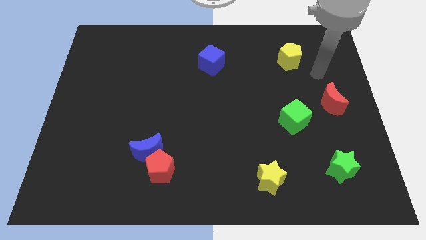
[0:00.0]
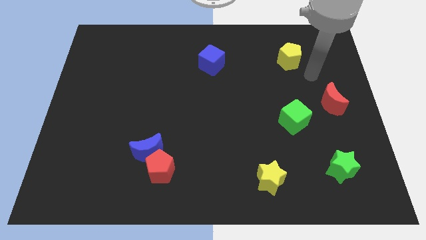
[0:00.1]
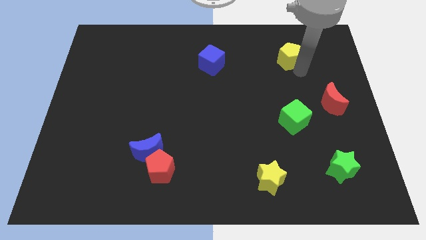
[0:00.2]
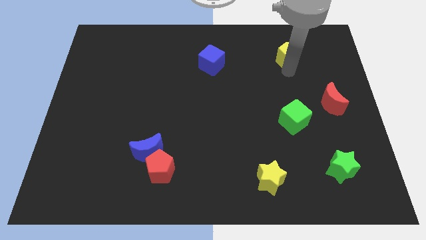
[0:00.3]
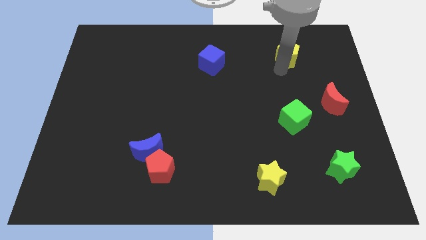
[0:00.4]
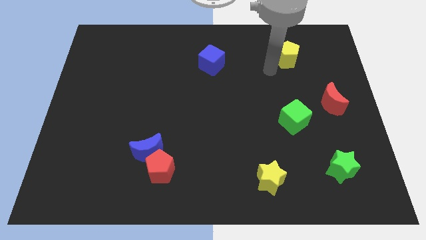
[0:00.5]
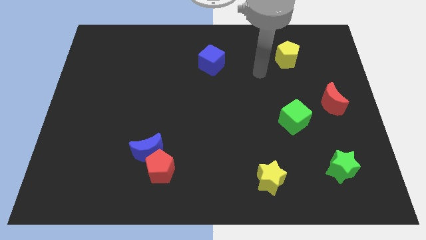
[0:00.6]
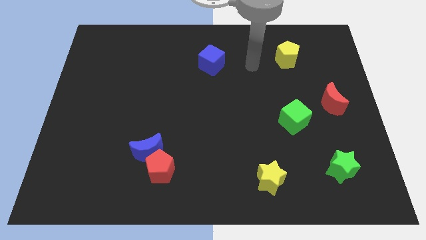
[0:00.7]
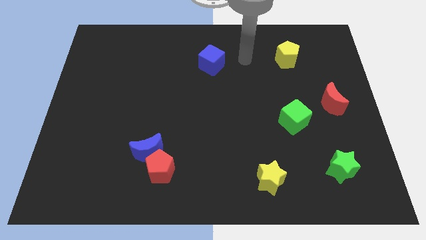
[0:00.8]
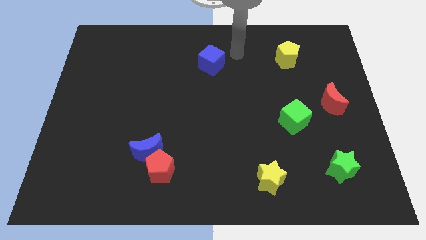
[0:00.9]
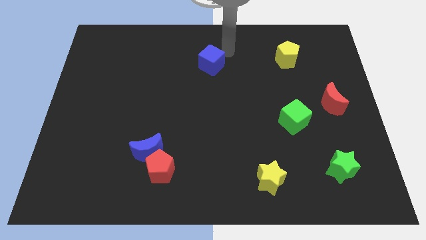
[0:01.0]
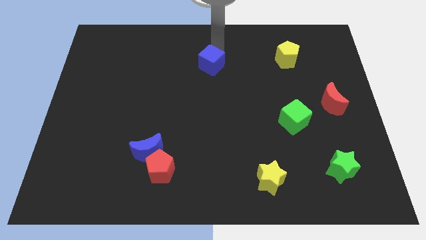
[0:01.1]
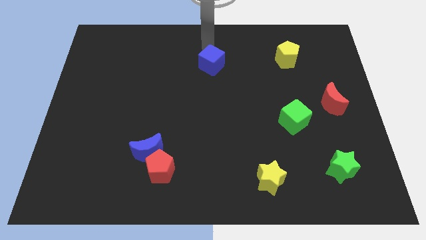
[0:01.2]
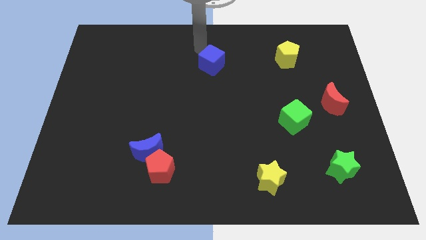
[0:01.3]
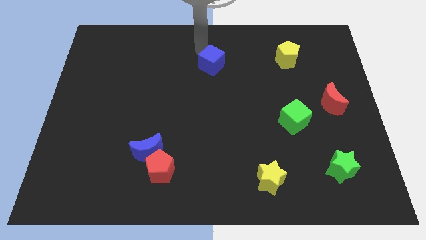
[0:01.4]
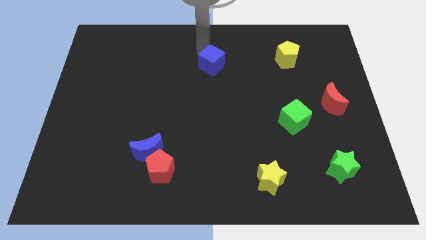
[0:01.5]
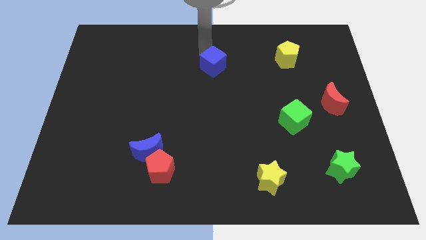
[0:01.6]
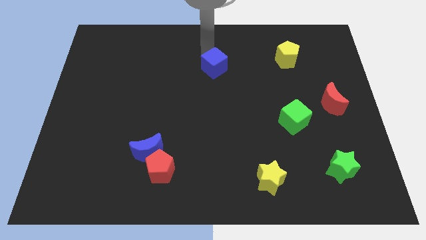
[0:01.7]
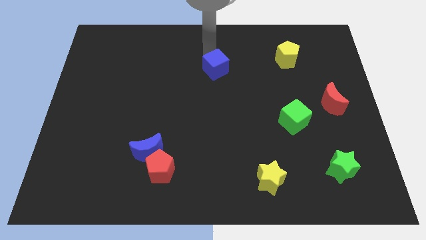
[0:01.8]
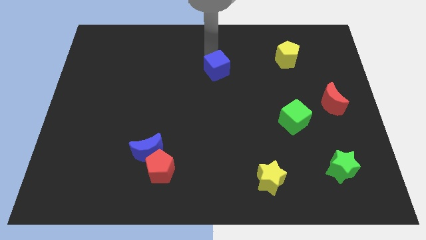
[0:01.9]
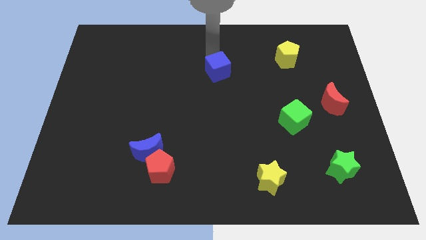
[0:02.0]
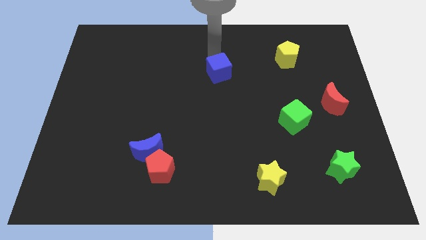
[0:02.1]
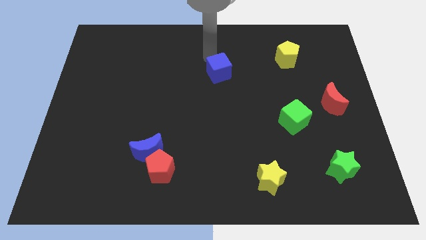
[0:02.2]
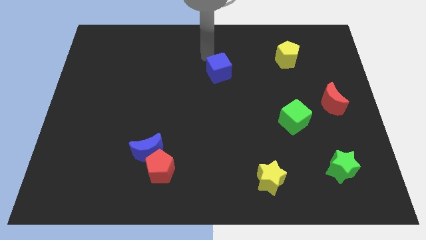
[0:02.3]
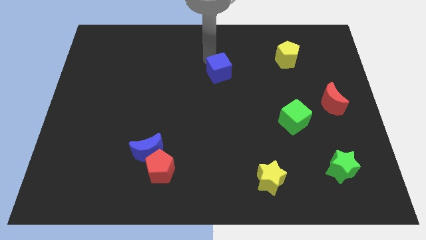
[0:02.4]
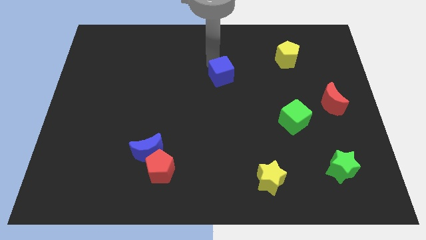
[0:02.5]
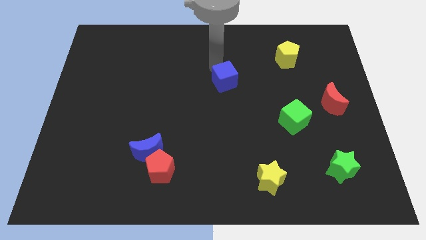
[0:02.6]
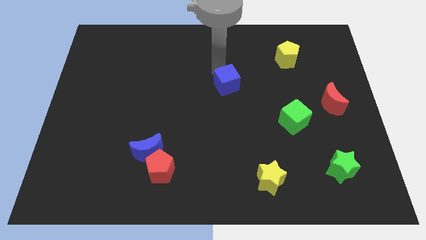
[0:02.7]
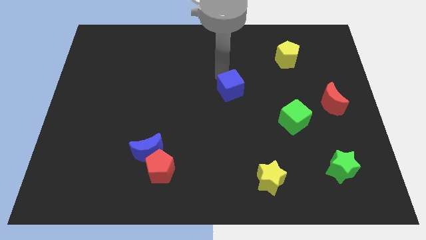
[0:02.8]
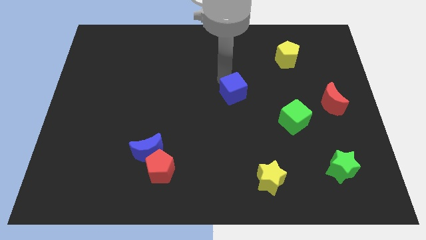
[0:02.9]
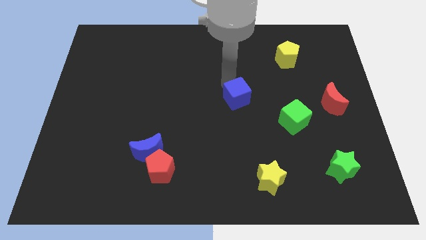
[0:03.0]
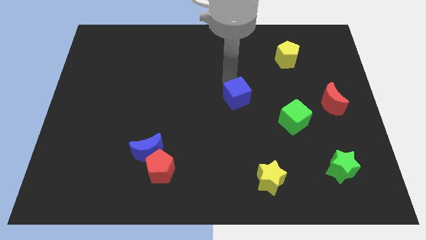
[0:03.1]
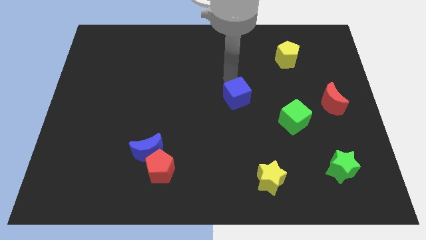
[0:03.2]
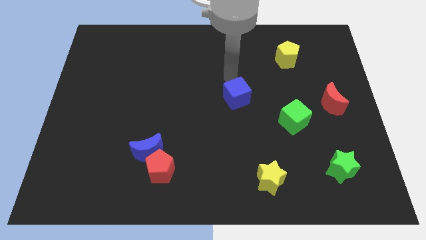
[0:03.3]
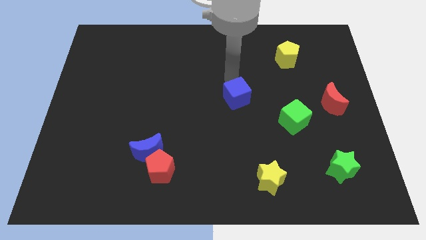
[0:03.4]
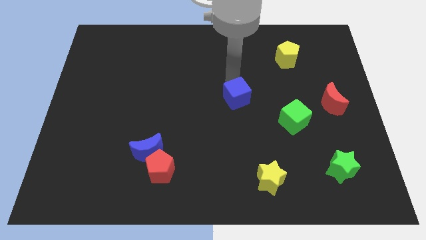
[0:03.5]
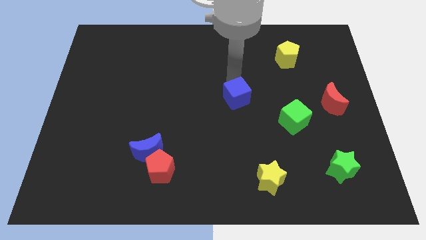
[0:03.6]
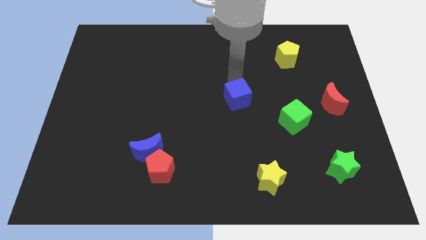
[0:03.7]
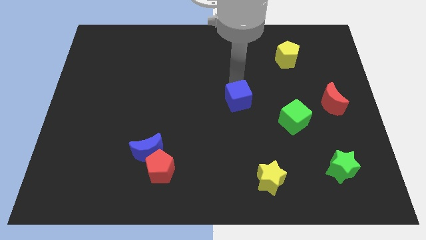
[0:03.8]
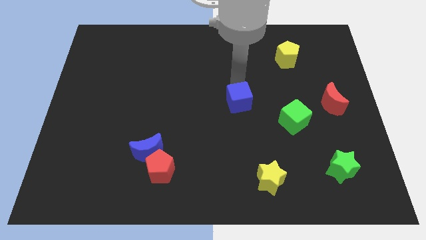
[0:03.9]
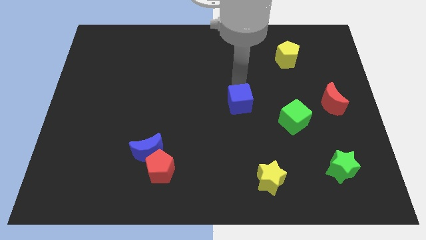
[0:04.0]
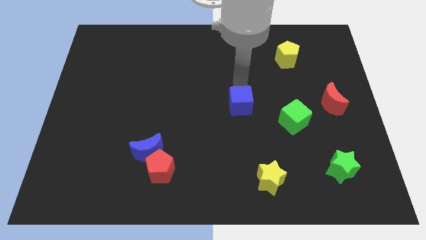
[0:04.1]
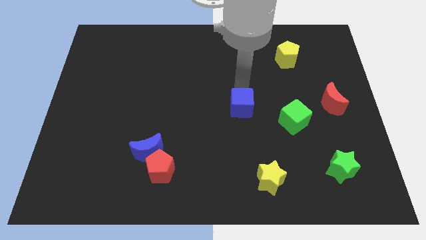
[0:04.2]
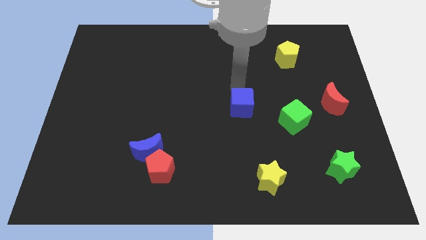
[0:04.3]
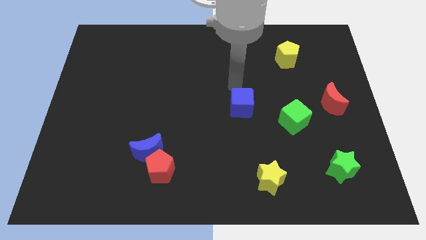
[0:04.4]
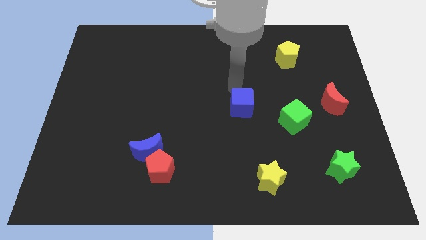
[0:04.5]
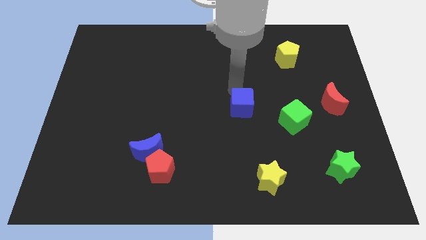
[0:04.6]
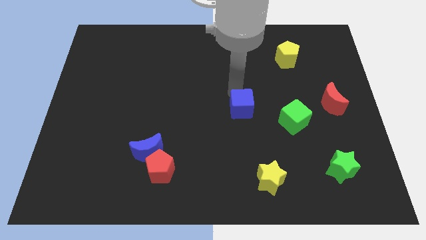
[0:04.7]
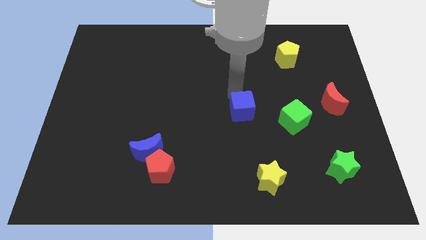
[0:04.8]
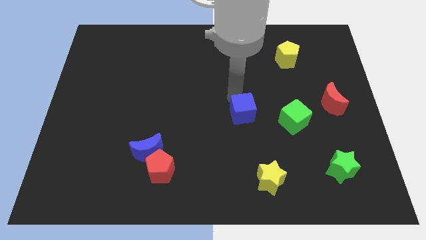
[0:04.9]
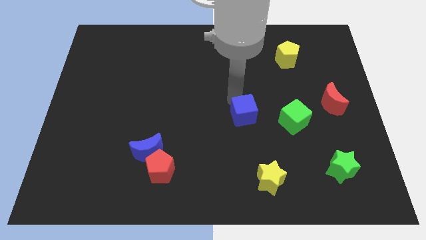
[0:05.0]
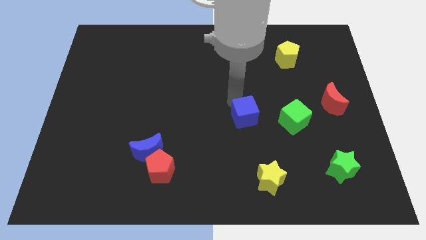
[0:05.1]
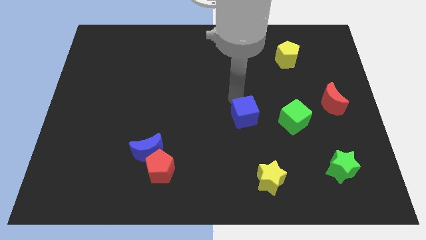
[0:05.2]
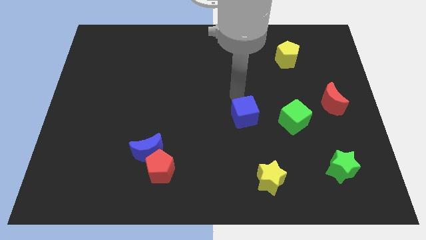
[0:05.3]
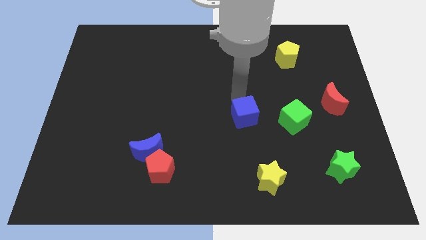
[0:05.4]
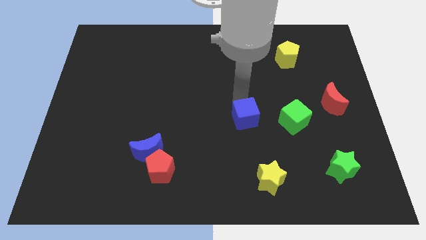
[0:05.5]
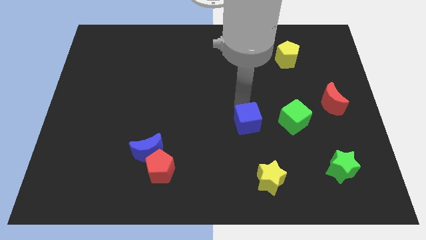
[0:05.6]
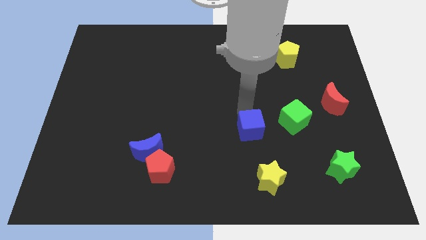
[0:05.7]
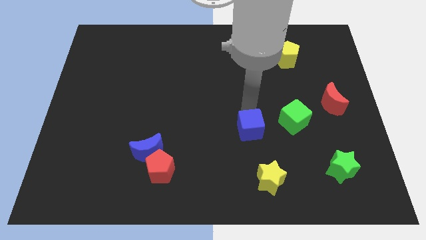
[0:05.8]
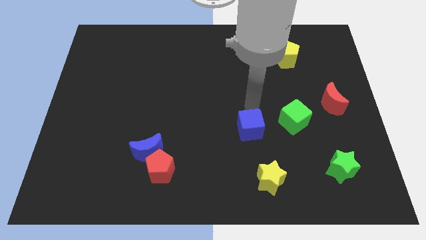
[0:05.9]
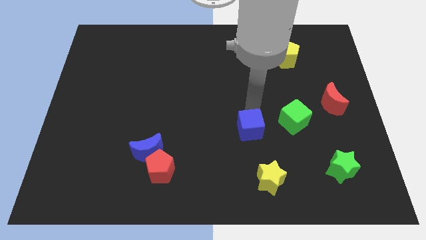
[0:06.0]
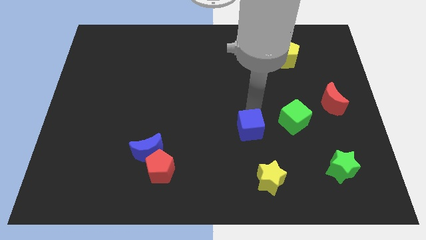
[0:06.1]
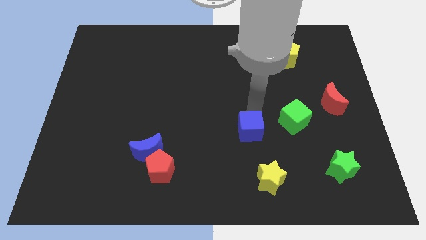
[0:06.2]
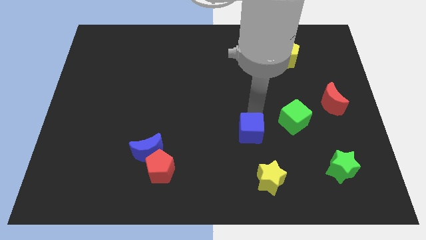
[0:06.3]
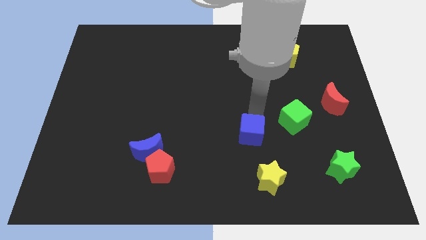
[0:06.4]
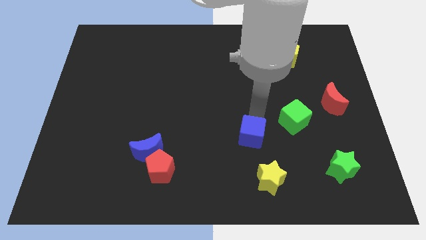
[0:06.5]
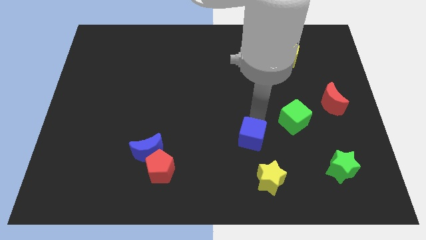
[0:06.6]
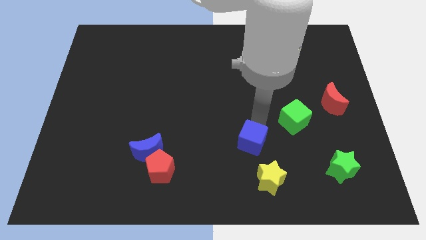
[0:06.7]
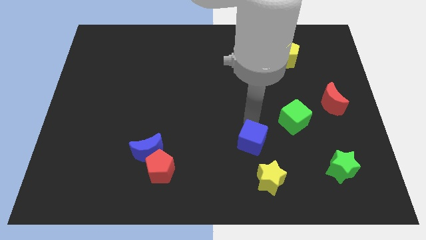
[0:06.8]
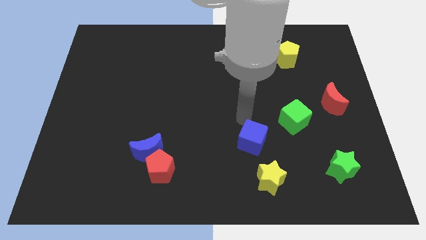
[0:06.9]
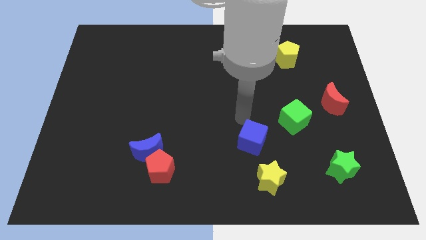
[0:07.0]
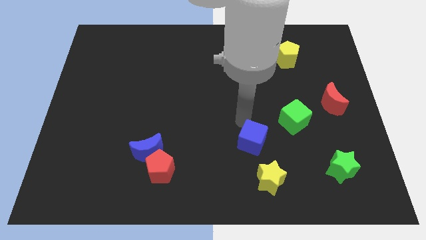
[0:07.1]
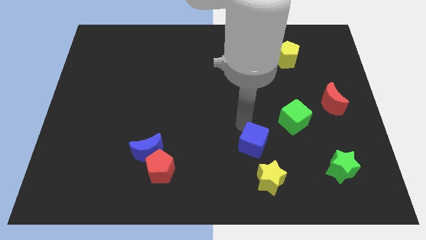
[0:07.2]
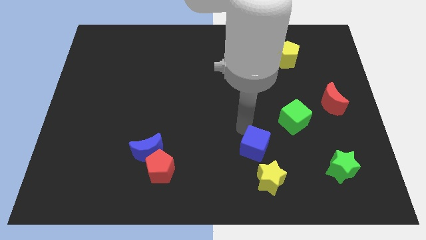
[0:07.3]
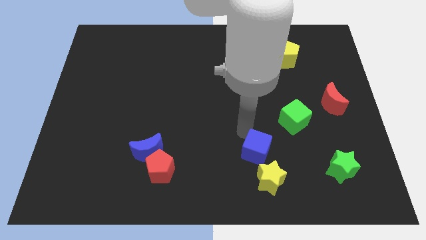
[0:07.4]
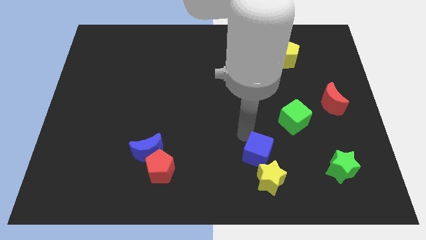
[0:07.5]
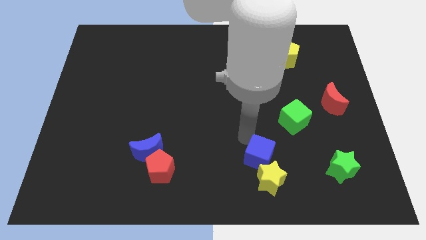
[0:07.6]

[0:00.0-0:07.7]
put the blue cube next to the yellow star
